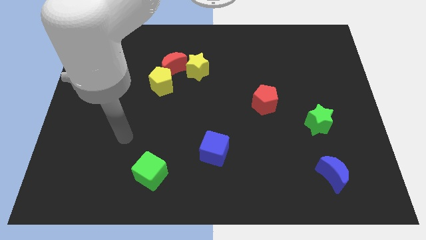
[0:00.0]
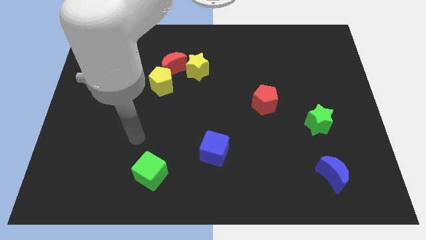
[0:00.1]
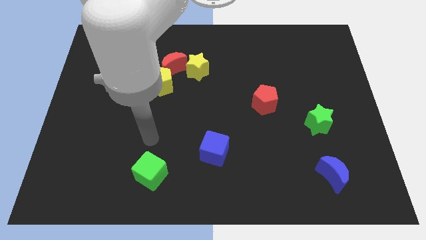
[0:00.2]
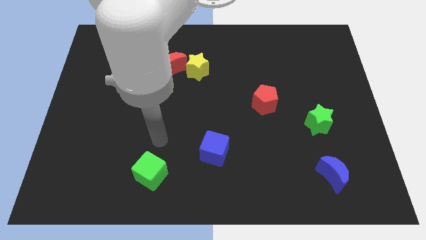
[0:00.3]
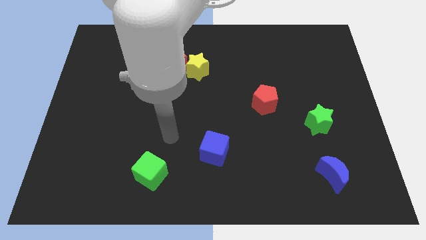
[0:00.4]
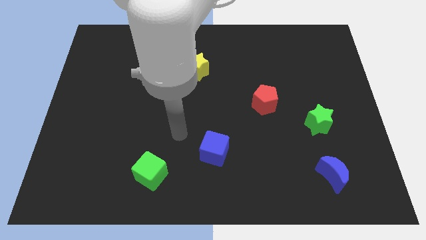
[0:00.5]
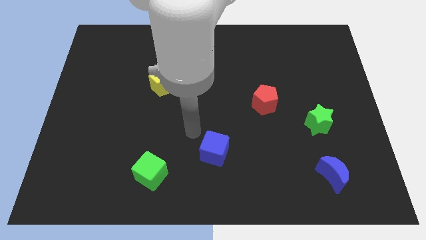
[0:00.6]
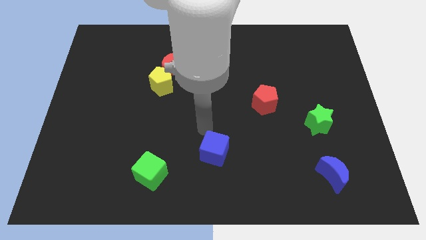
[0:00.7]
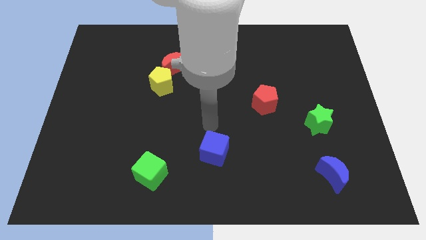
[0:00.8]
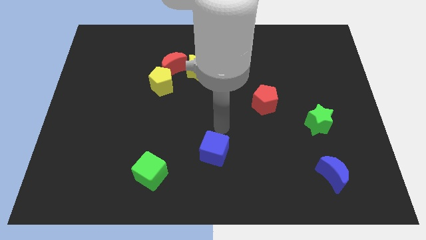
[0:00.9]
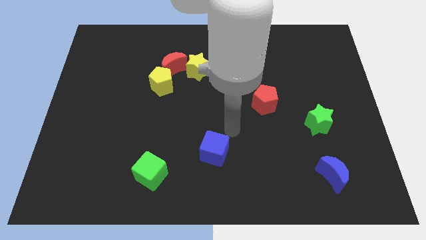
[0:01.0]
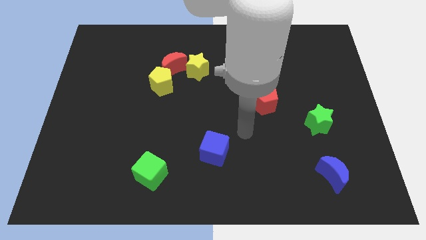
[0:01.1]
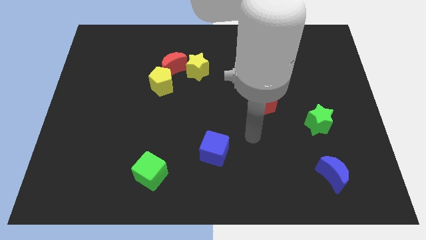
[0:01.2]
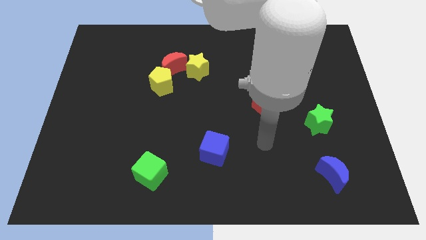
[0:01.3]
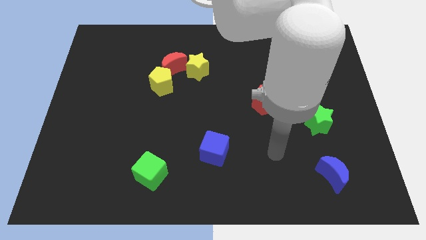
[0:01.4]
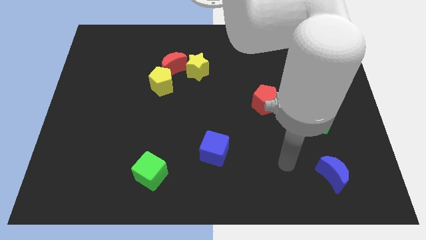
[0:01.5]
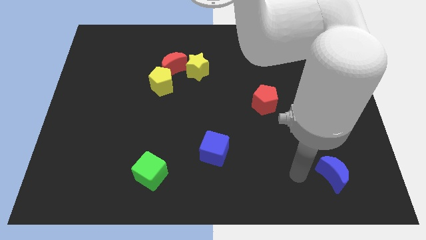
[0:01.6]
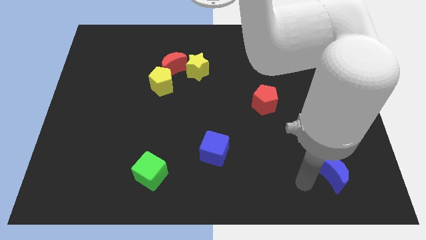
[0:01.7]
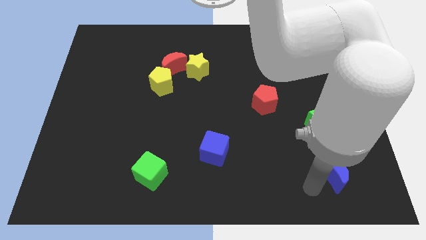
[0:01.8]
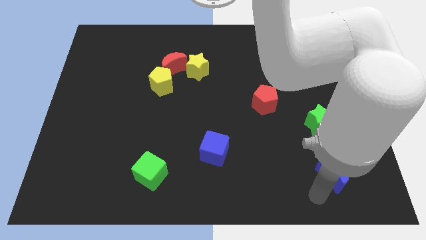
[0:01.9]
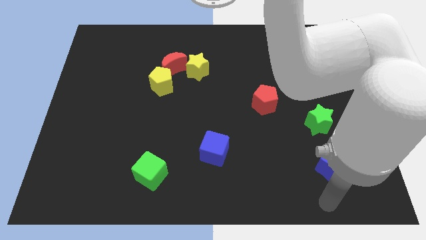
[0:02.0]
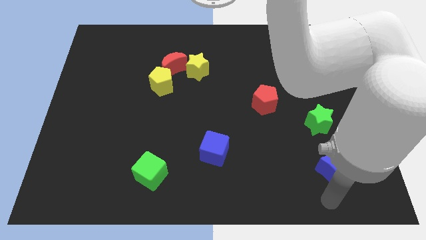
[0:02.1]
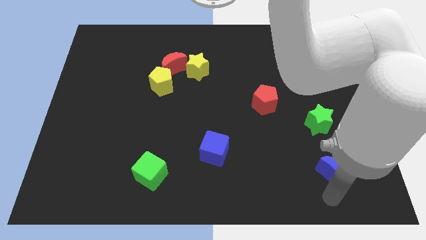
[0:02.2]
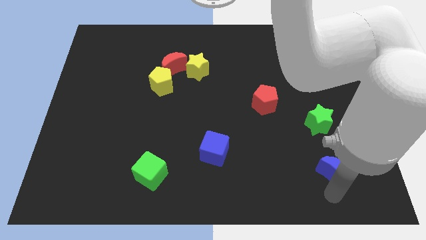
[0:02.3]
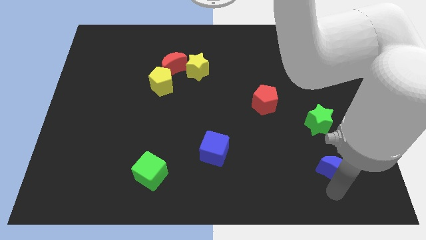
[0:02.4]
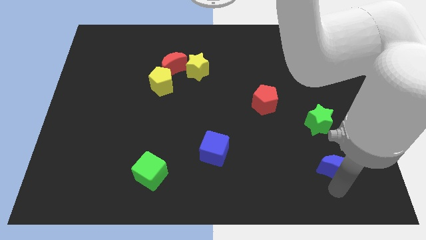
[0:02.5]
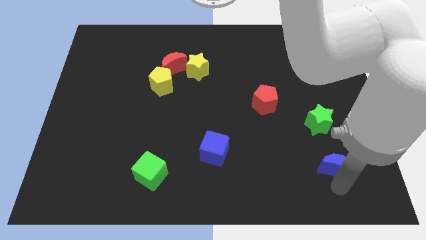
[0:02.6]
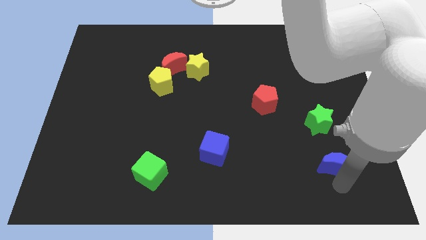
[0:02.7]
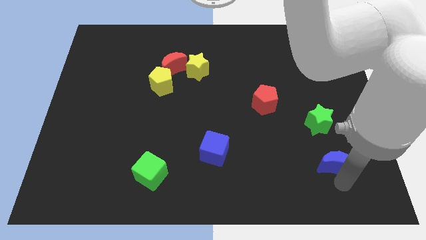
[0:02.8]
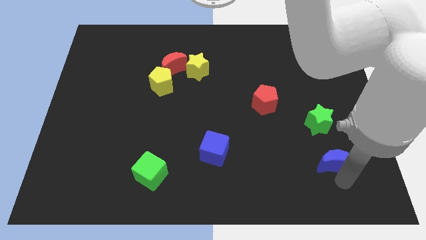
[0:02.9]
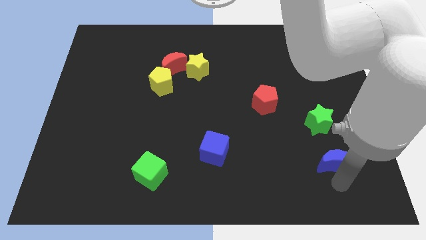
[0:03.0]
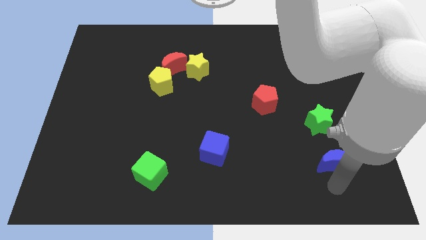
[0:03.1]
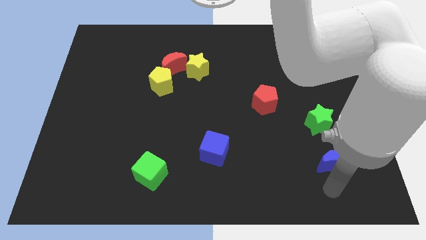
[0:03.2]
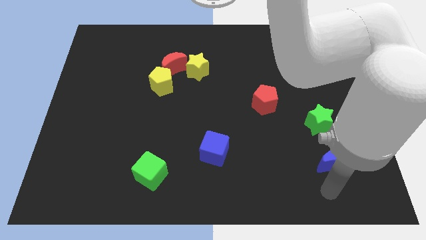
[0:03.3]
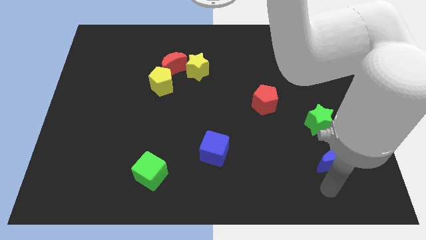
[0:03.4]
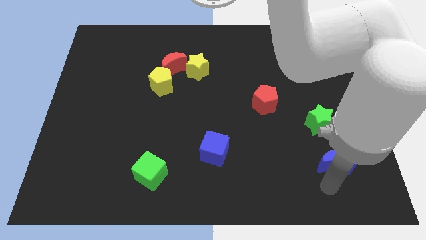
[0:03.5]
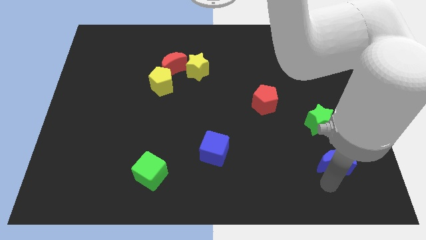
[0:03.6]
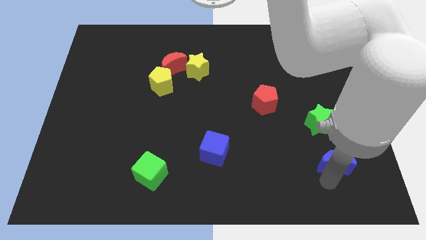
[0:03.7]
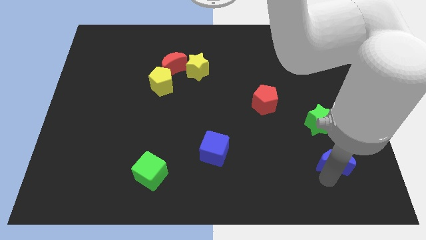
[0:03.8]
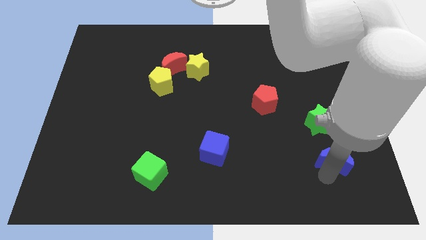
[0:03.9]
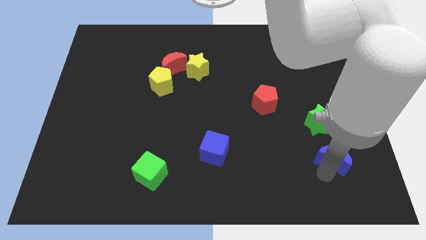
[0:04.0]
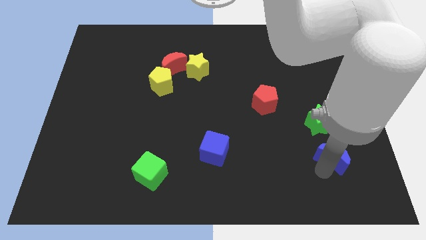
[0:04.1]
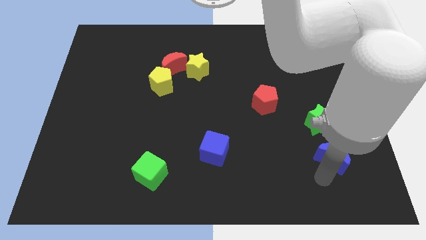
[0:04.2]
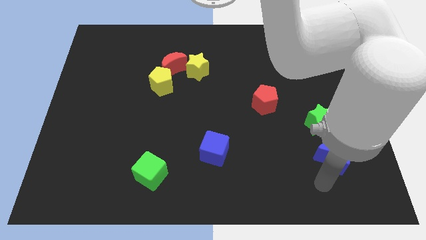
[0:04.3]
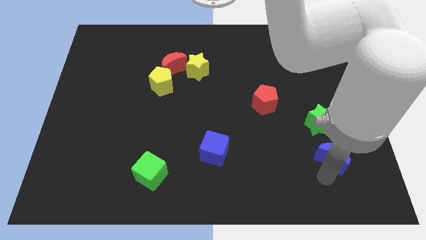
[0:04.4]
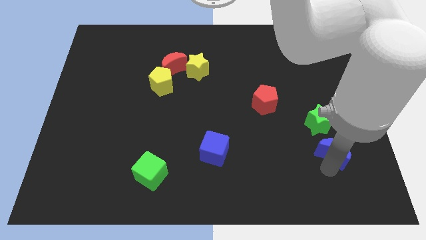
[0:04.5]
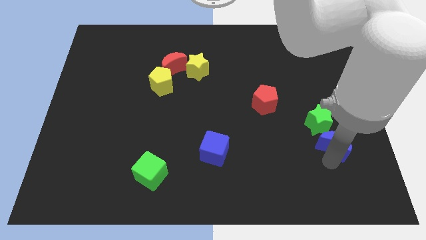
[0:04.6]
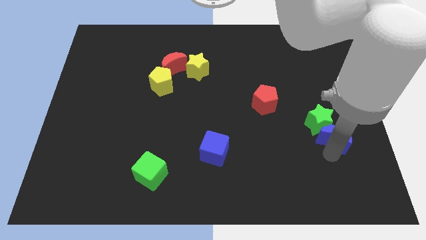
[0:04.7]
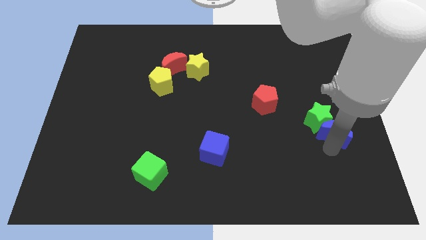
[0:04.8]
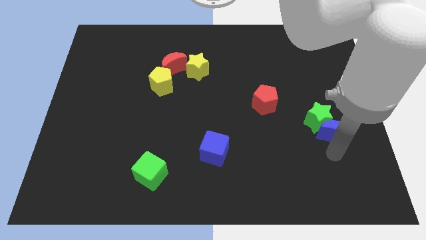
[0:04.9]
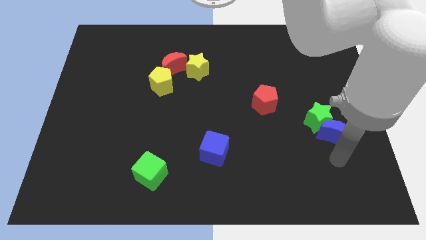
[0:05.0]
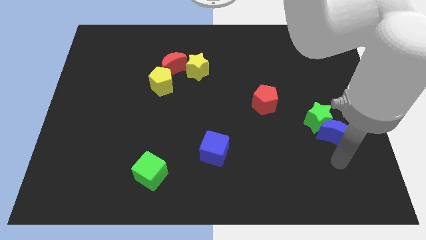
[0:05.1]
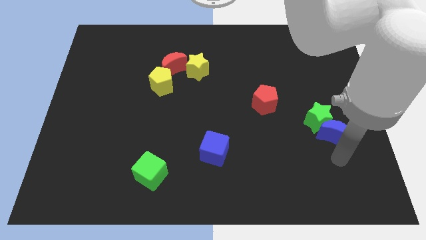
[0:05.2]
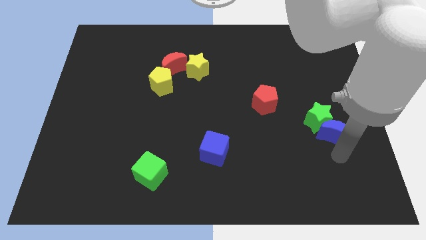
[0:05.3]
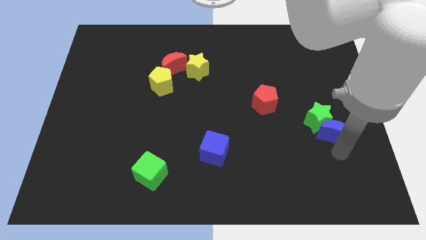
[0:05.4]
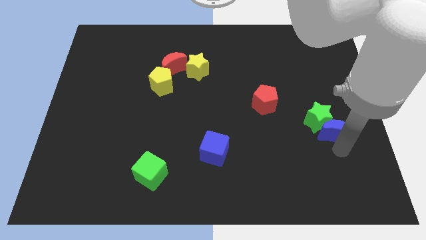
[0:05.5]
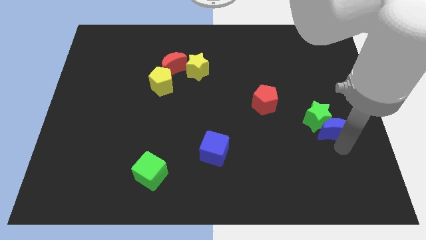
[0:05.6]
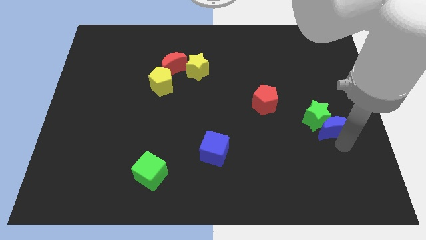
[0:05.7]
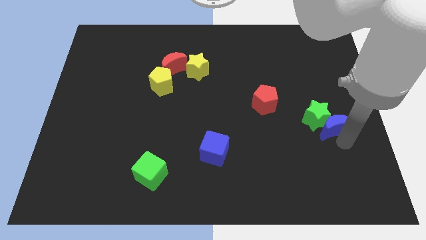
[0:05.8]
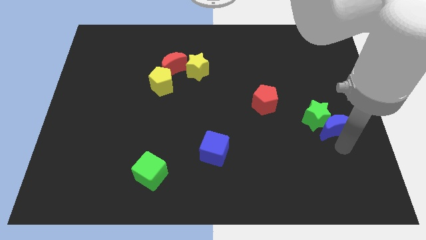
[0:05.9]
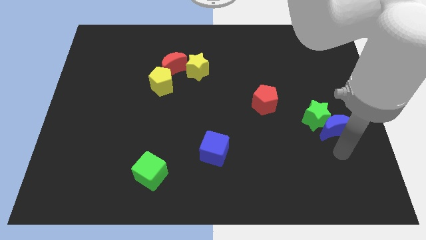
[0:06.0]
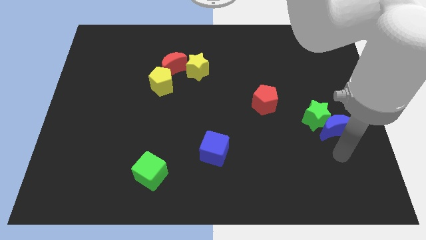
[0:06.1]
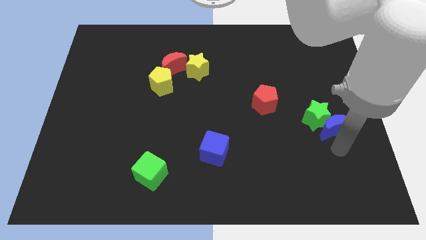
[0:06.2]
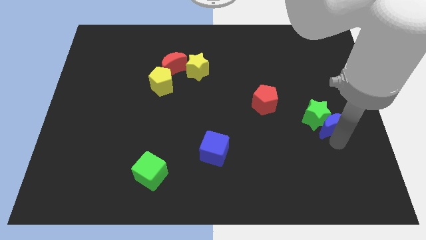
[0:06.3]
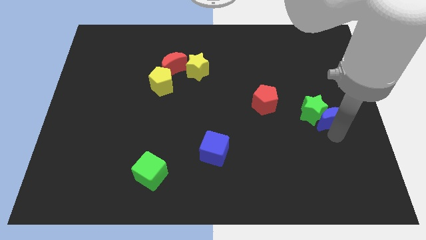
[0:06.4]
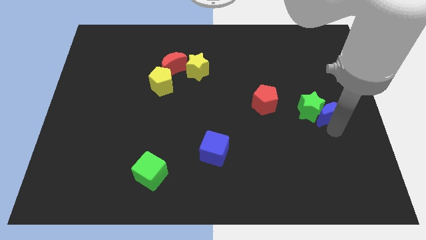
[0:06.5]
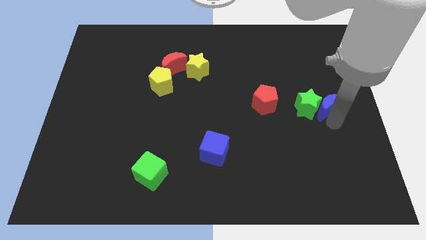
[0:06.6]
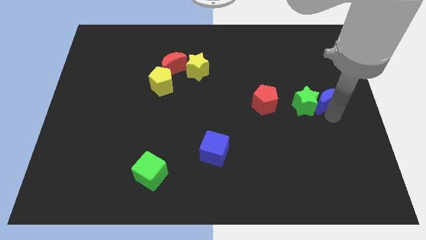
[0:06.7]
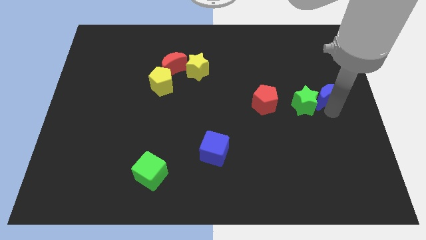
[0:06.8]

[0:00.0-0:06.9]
push the blue moon up
